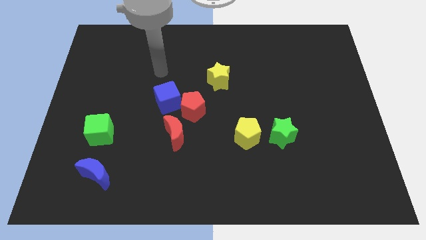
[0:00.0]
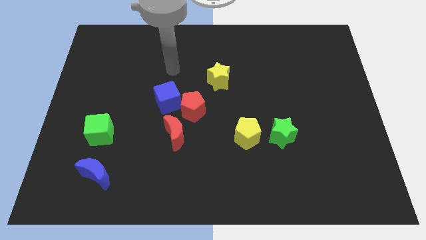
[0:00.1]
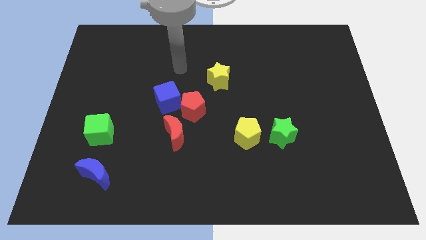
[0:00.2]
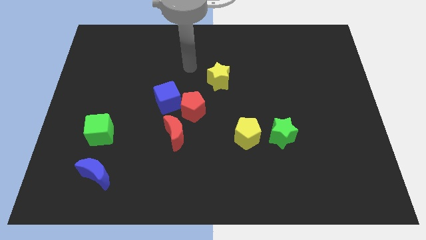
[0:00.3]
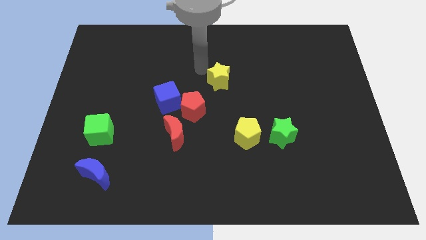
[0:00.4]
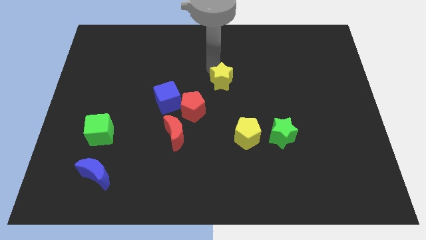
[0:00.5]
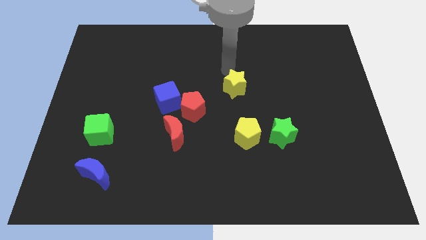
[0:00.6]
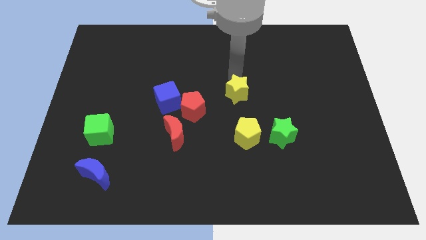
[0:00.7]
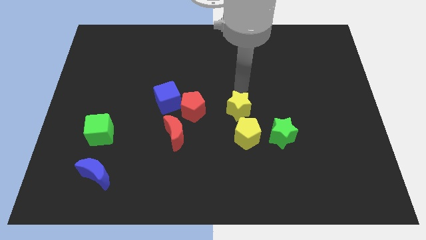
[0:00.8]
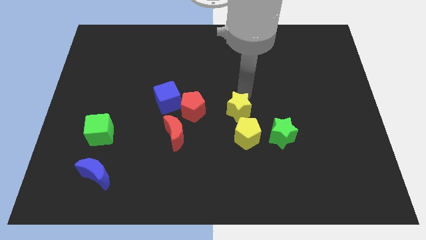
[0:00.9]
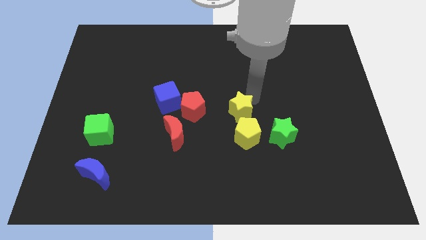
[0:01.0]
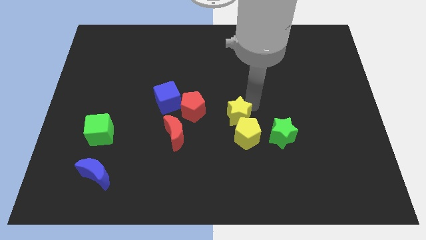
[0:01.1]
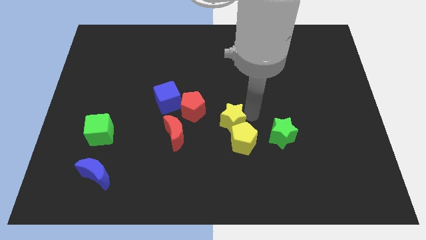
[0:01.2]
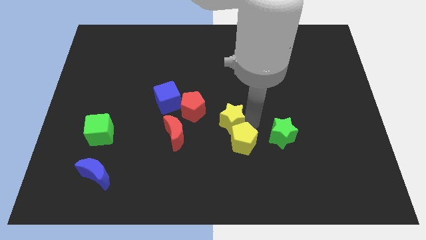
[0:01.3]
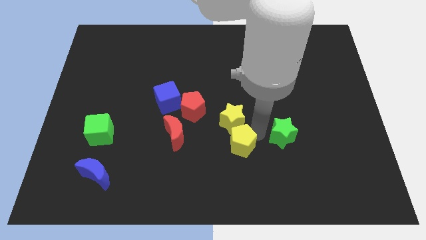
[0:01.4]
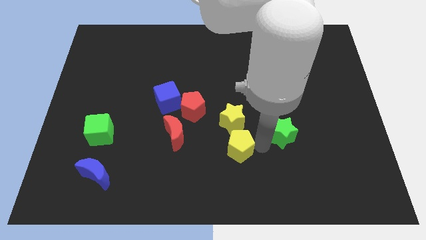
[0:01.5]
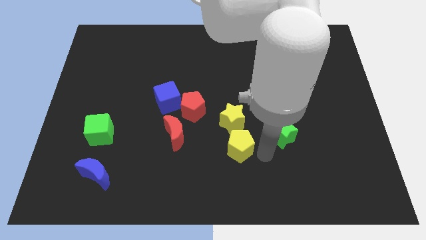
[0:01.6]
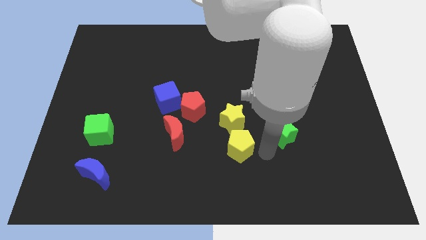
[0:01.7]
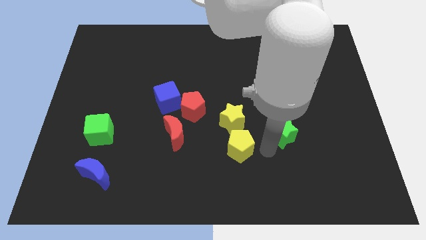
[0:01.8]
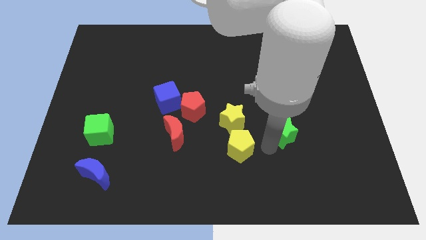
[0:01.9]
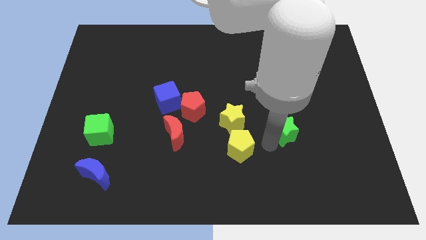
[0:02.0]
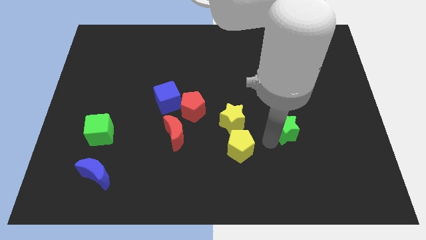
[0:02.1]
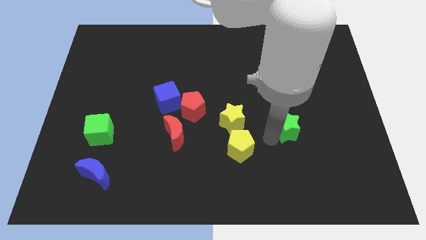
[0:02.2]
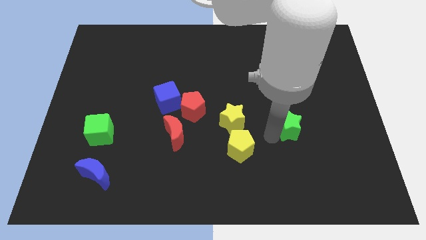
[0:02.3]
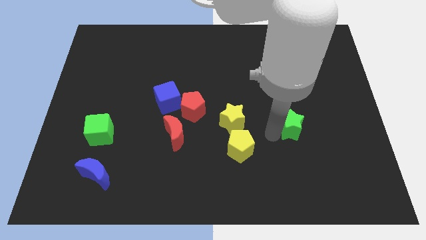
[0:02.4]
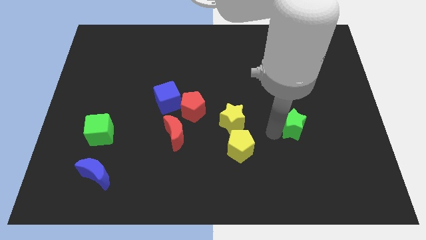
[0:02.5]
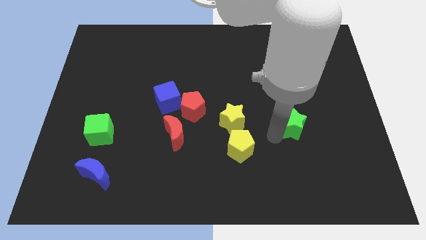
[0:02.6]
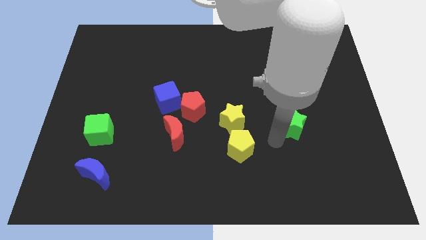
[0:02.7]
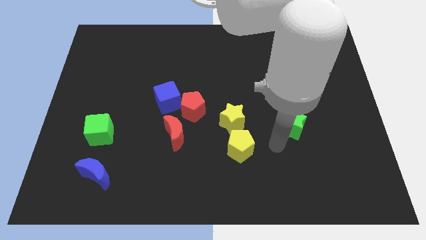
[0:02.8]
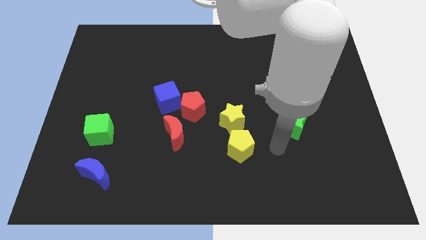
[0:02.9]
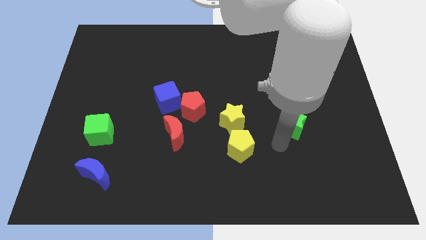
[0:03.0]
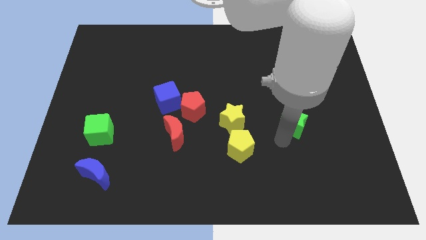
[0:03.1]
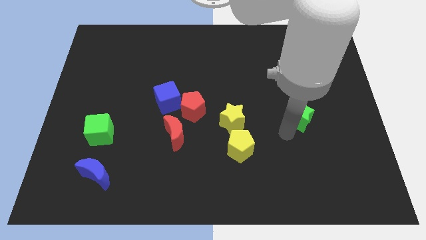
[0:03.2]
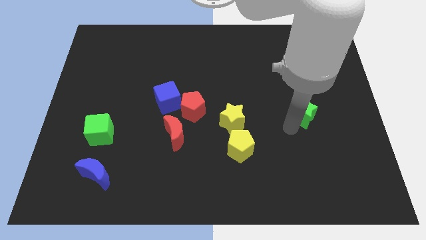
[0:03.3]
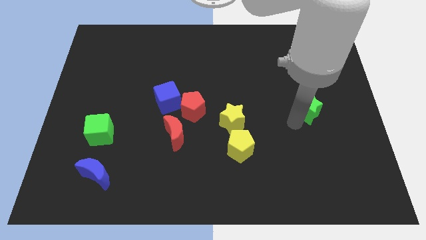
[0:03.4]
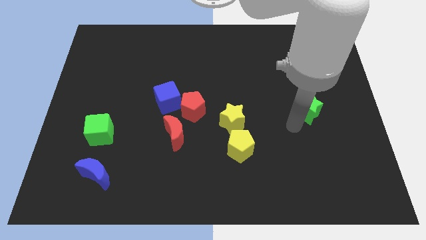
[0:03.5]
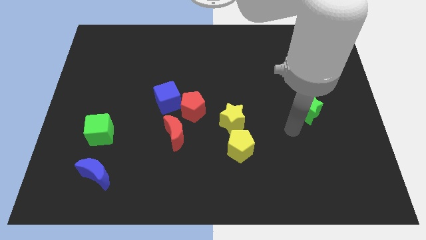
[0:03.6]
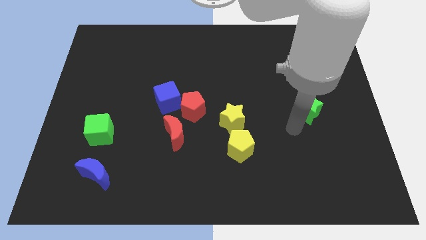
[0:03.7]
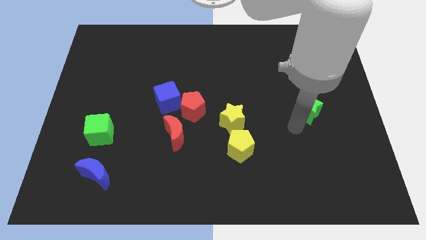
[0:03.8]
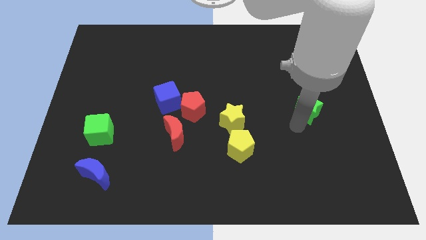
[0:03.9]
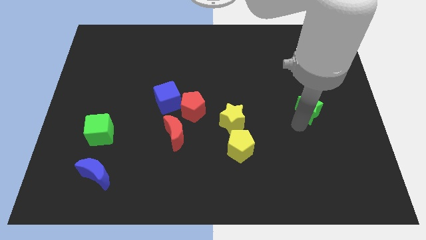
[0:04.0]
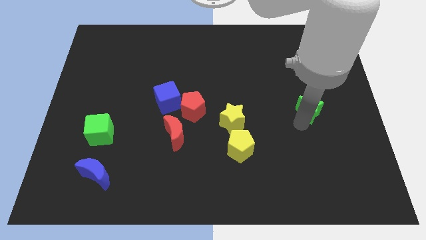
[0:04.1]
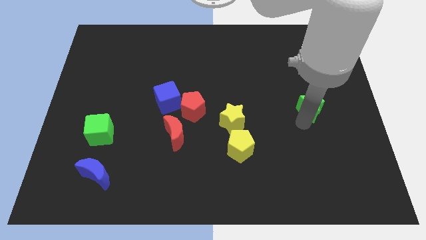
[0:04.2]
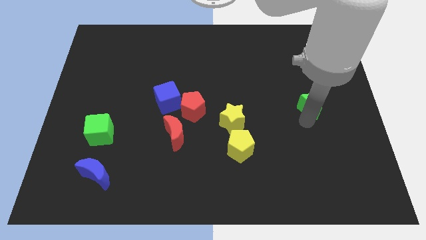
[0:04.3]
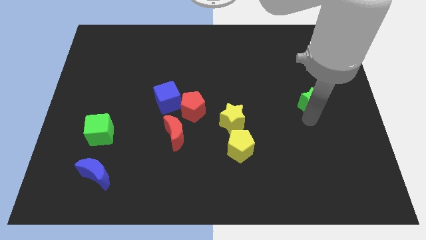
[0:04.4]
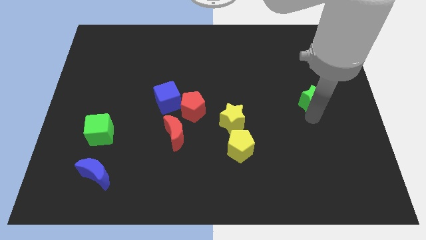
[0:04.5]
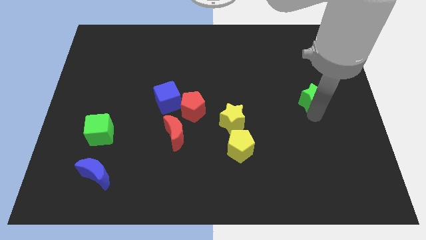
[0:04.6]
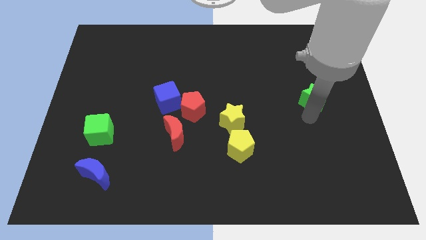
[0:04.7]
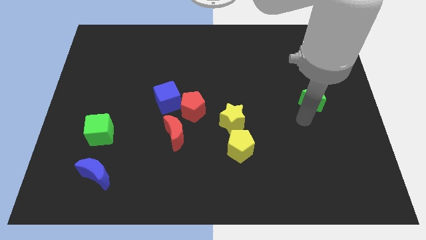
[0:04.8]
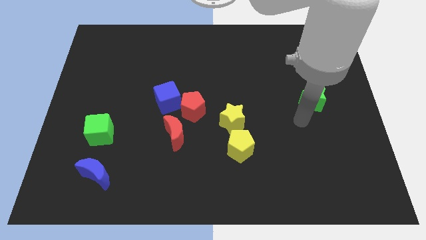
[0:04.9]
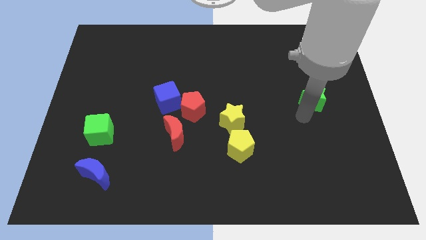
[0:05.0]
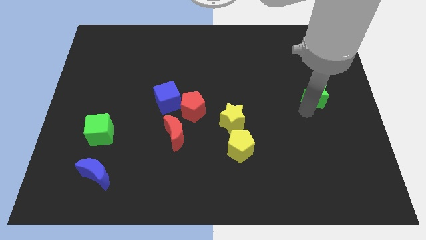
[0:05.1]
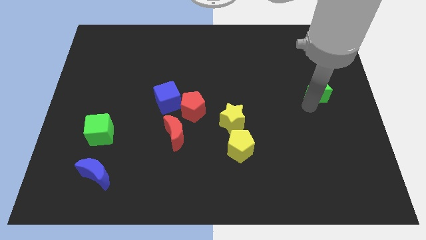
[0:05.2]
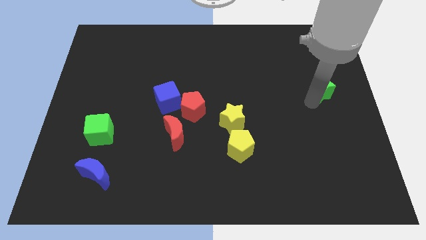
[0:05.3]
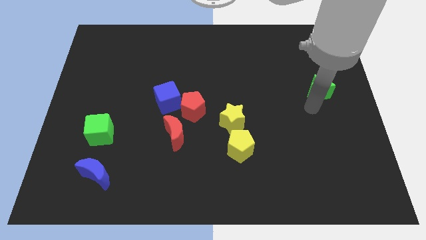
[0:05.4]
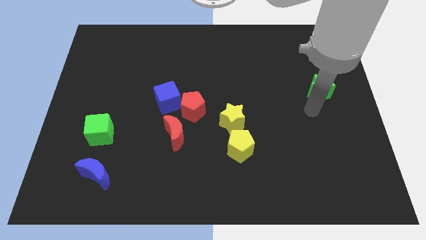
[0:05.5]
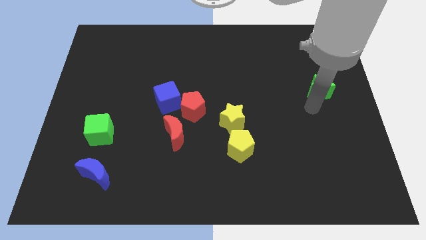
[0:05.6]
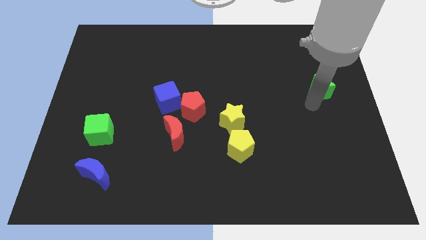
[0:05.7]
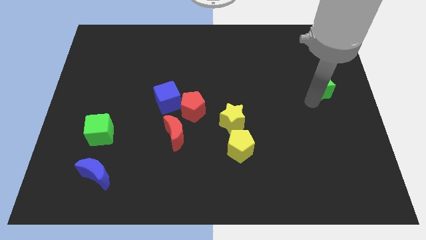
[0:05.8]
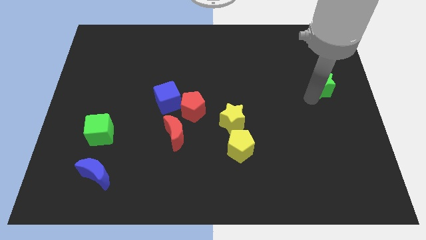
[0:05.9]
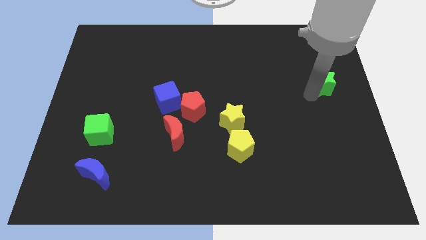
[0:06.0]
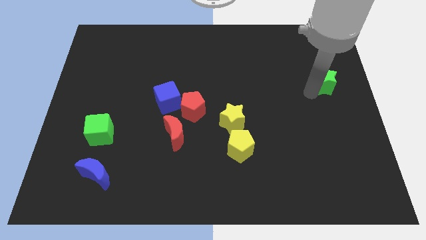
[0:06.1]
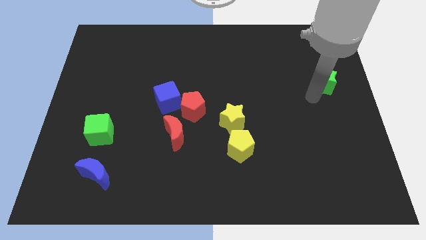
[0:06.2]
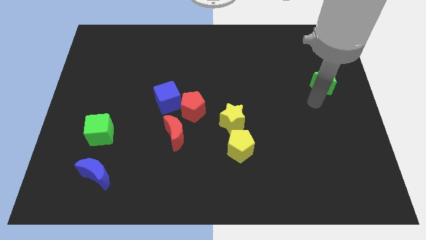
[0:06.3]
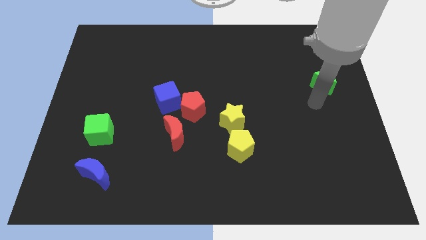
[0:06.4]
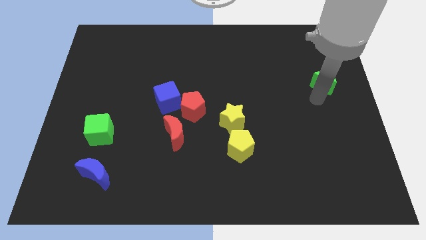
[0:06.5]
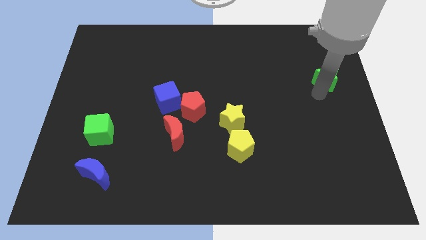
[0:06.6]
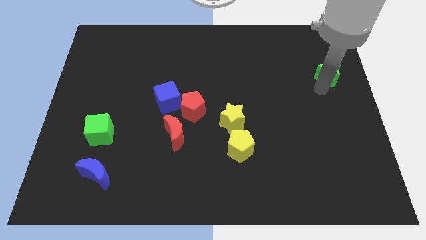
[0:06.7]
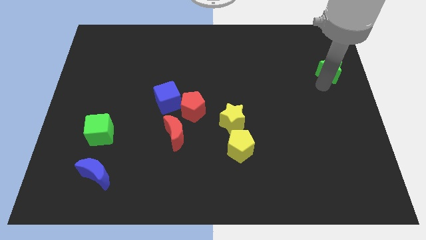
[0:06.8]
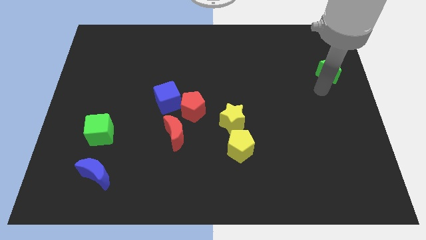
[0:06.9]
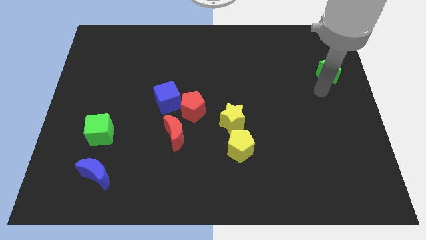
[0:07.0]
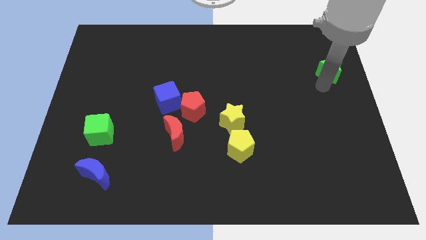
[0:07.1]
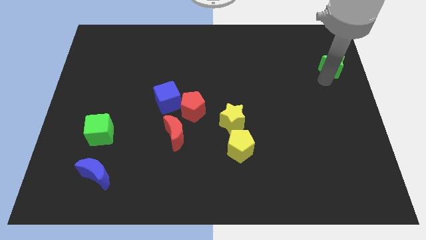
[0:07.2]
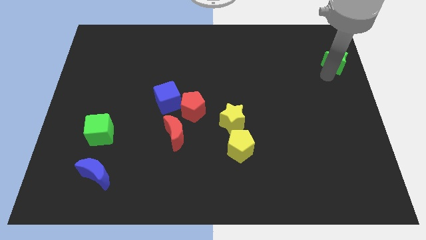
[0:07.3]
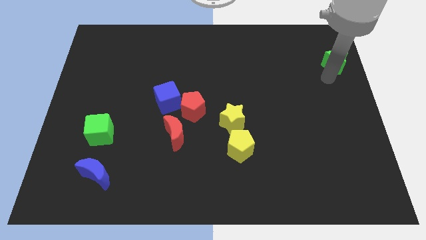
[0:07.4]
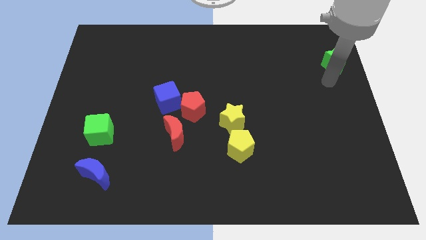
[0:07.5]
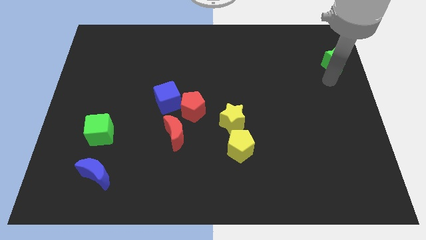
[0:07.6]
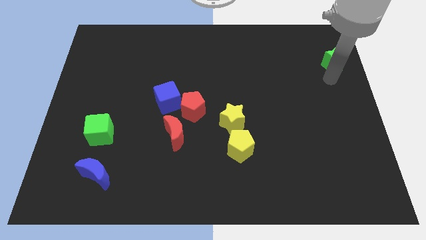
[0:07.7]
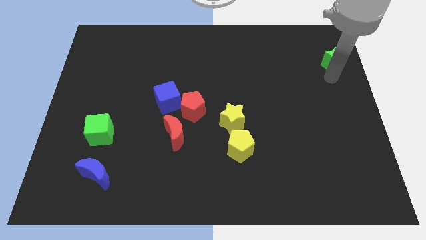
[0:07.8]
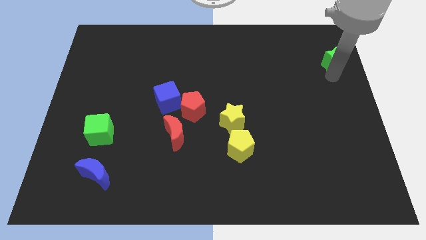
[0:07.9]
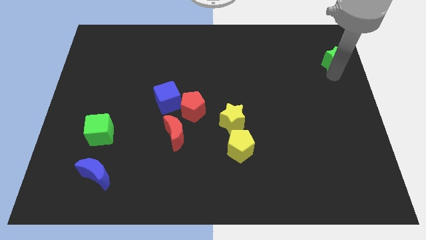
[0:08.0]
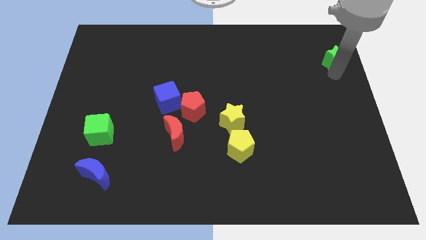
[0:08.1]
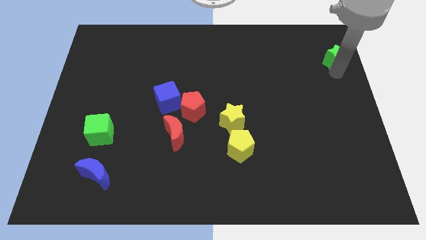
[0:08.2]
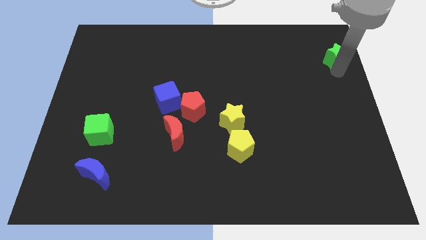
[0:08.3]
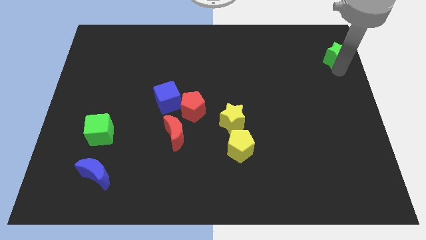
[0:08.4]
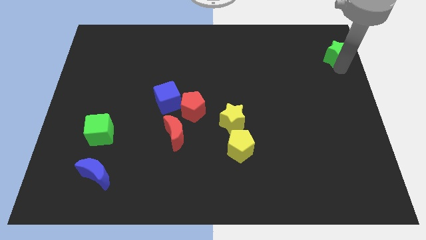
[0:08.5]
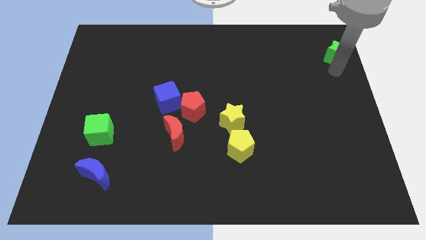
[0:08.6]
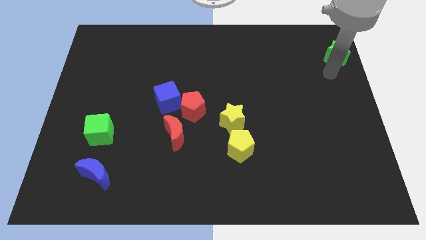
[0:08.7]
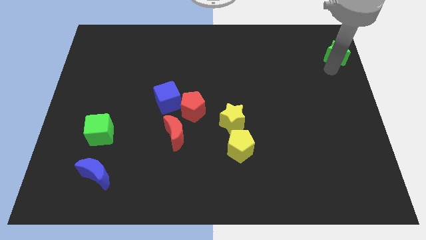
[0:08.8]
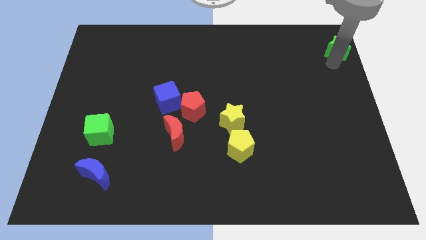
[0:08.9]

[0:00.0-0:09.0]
move the green star to the top right
